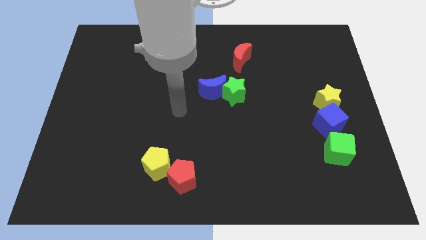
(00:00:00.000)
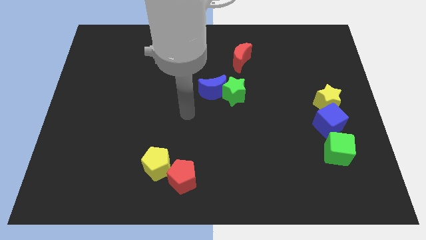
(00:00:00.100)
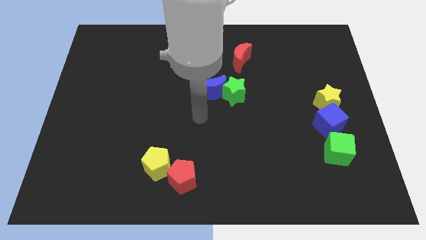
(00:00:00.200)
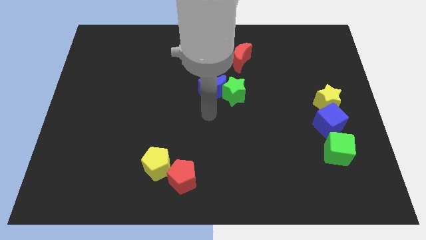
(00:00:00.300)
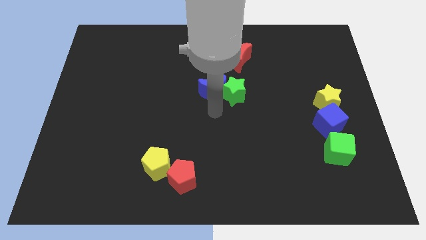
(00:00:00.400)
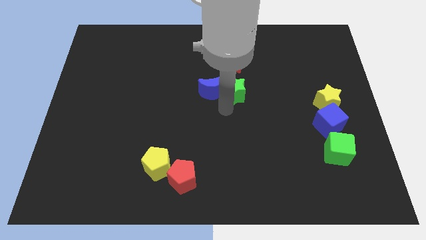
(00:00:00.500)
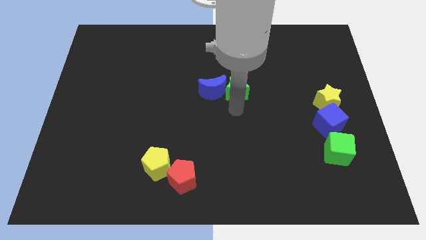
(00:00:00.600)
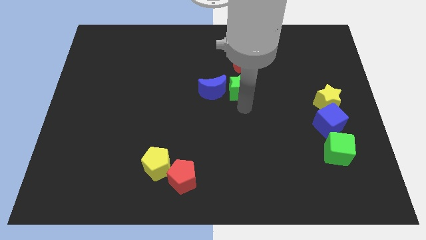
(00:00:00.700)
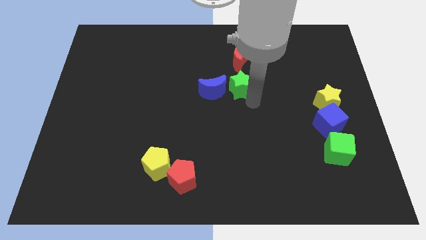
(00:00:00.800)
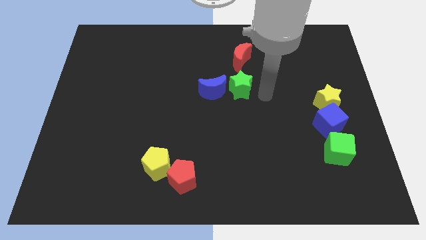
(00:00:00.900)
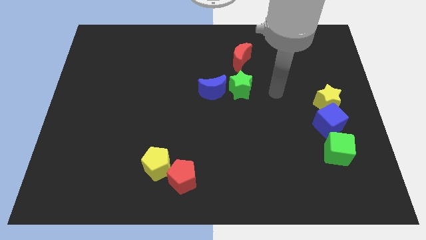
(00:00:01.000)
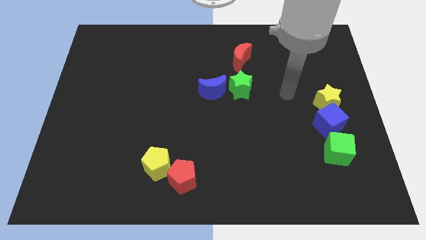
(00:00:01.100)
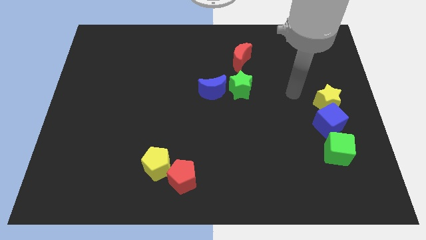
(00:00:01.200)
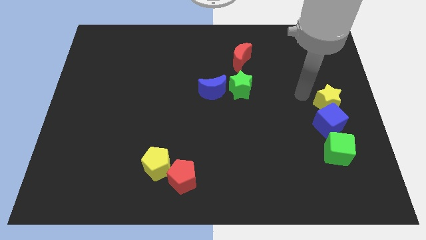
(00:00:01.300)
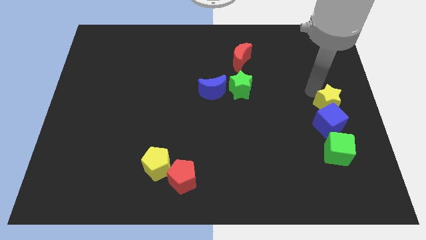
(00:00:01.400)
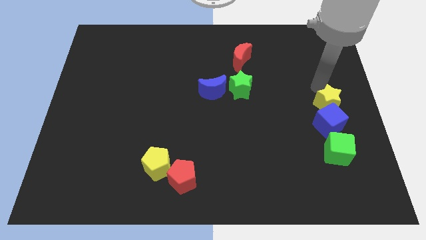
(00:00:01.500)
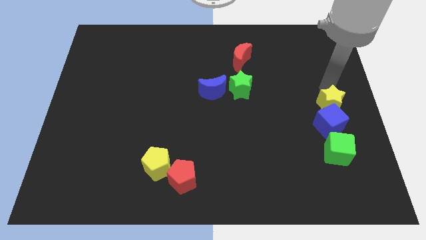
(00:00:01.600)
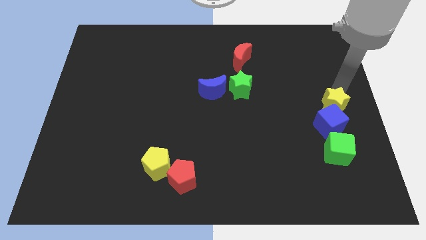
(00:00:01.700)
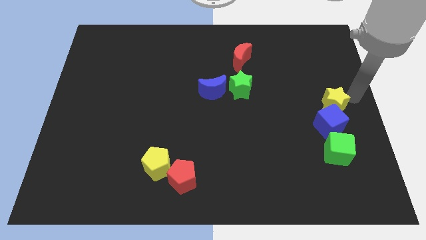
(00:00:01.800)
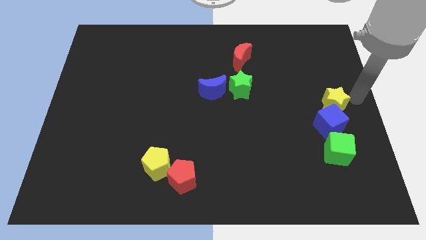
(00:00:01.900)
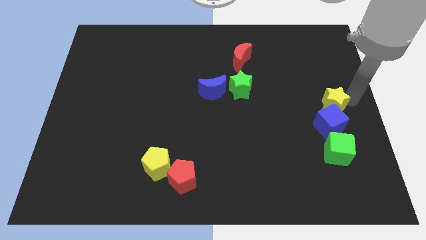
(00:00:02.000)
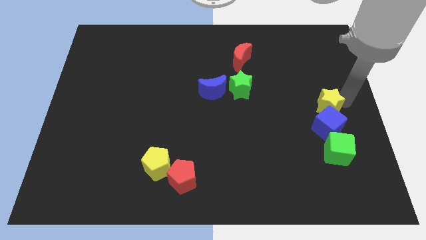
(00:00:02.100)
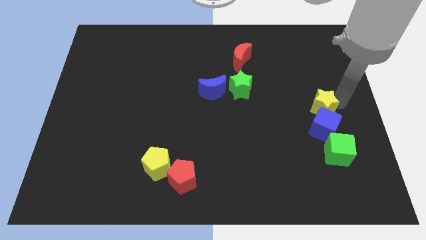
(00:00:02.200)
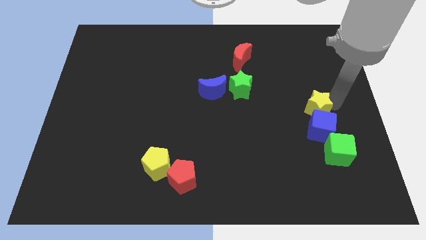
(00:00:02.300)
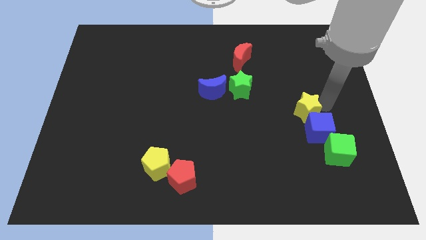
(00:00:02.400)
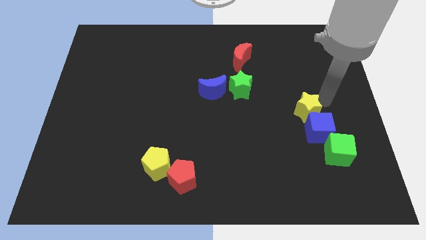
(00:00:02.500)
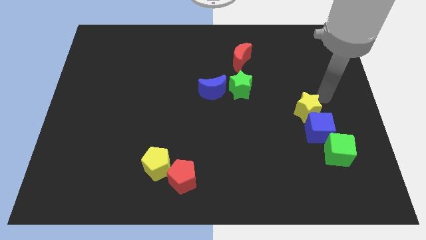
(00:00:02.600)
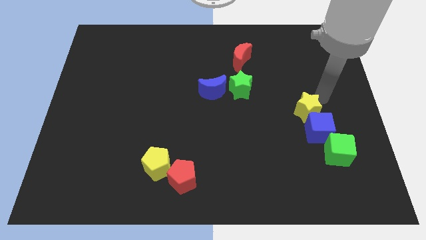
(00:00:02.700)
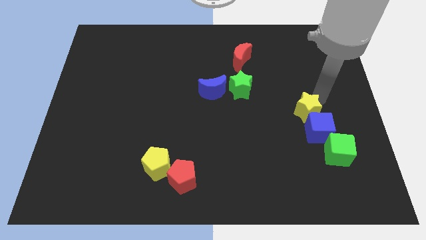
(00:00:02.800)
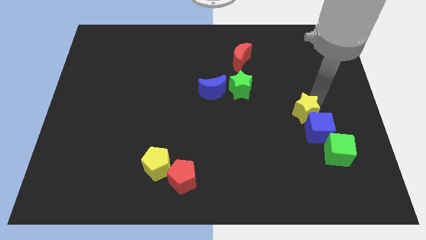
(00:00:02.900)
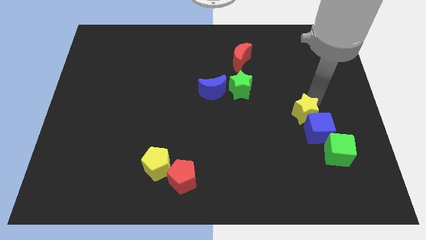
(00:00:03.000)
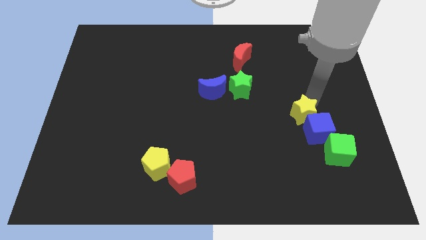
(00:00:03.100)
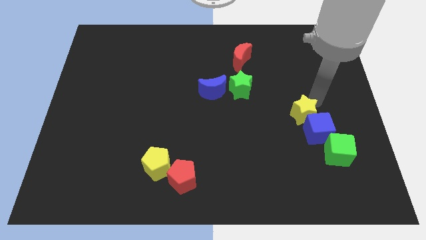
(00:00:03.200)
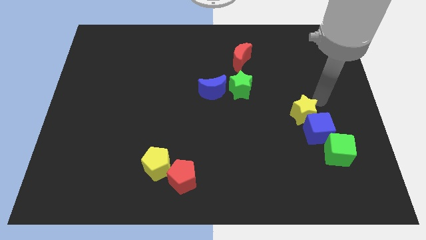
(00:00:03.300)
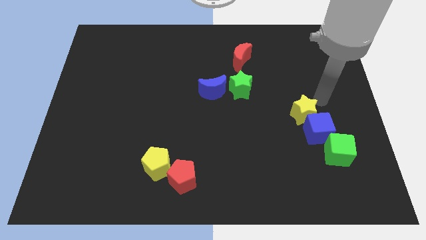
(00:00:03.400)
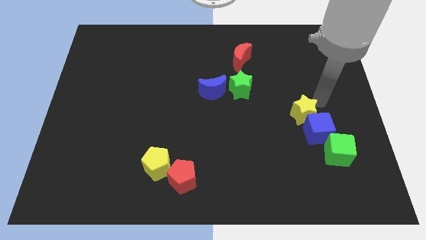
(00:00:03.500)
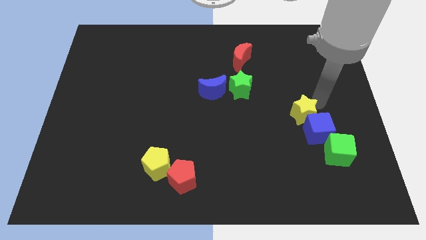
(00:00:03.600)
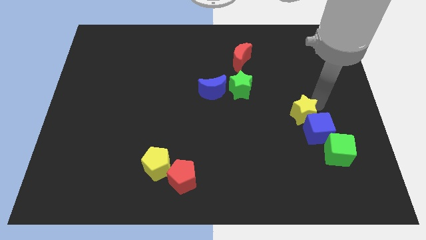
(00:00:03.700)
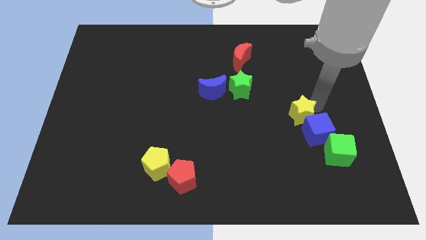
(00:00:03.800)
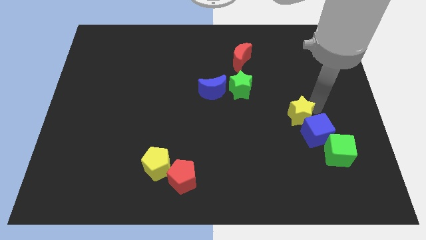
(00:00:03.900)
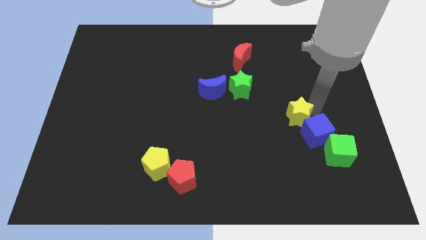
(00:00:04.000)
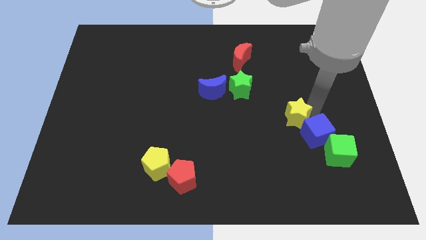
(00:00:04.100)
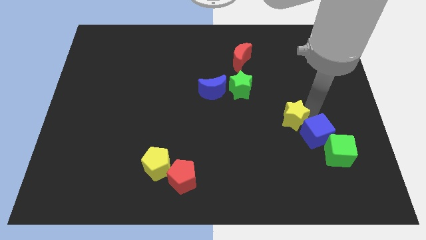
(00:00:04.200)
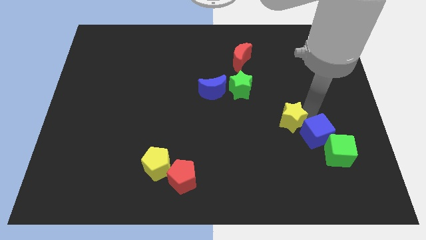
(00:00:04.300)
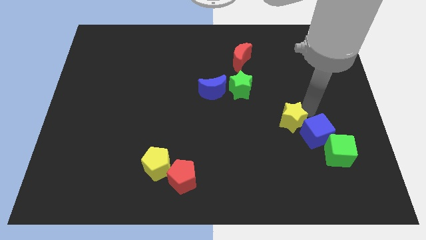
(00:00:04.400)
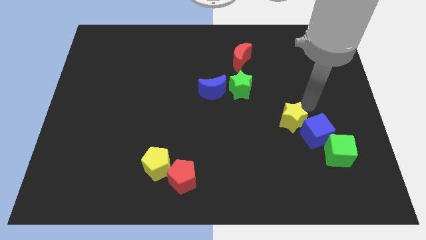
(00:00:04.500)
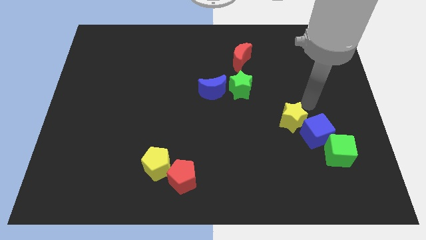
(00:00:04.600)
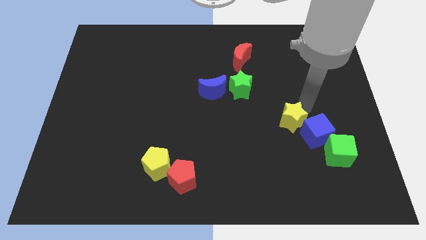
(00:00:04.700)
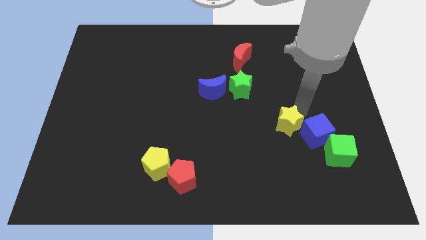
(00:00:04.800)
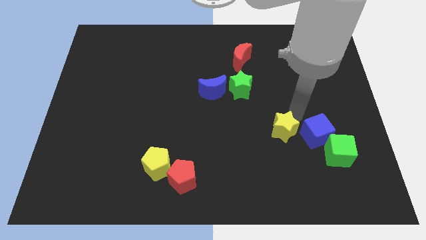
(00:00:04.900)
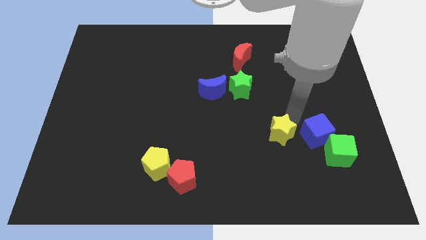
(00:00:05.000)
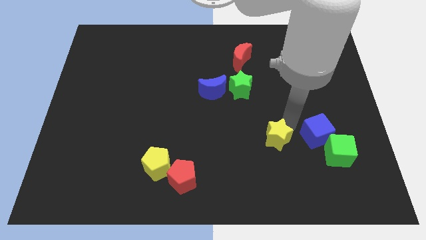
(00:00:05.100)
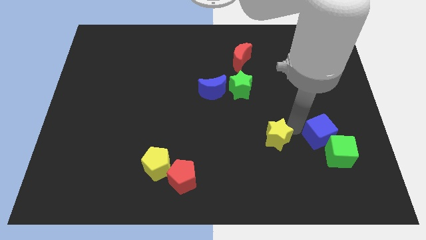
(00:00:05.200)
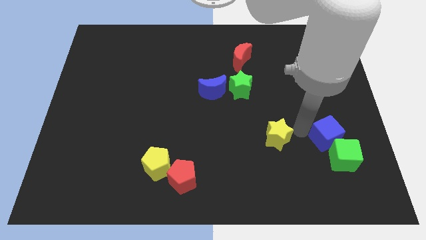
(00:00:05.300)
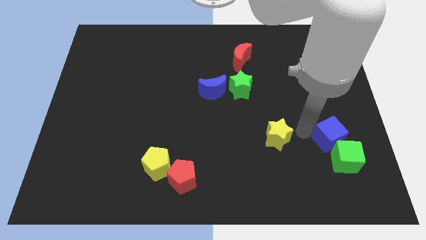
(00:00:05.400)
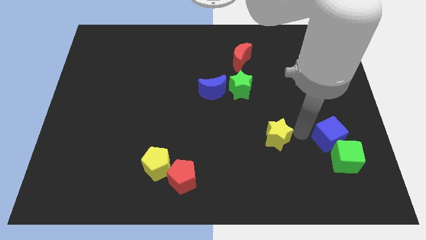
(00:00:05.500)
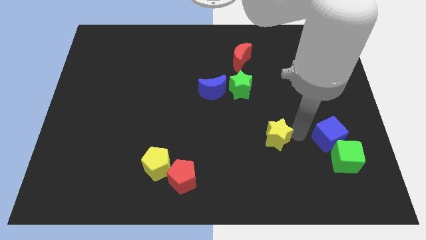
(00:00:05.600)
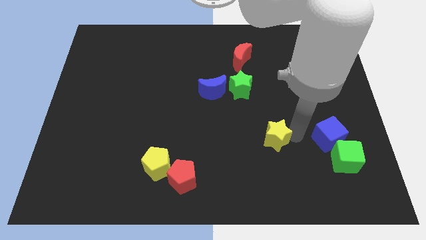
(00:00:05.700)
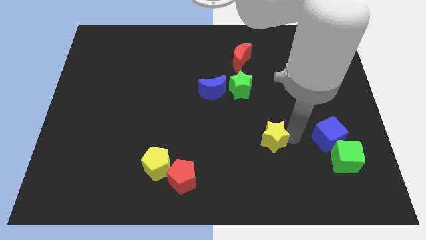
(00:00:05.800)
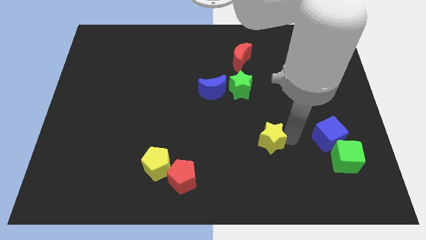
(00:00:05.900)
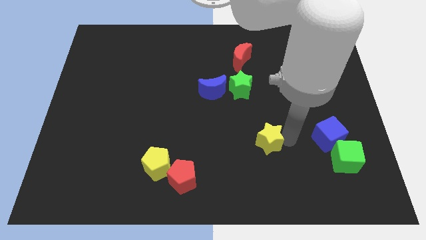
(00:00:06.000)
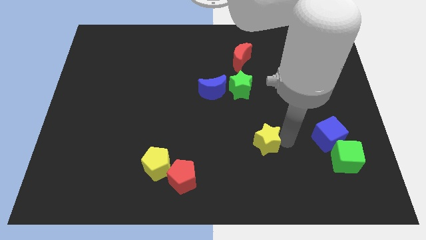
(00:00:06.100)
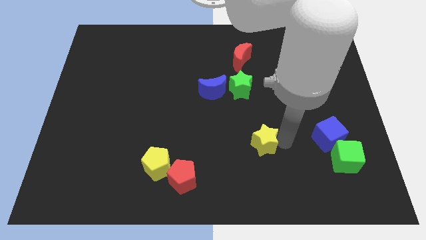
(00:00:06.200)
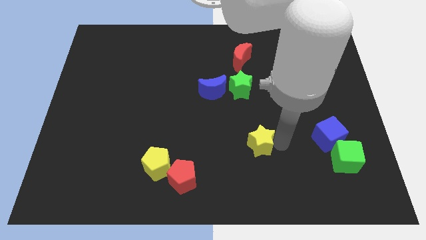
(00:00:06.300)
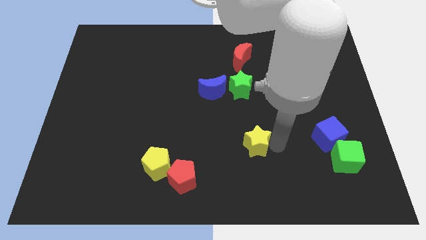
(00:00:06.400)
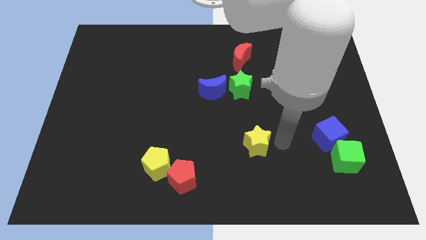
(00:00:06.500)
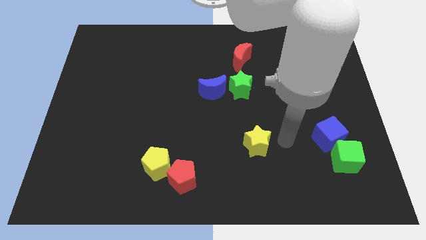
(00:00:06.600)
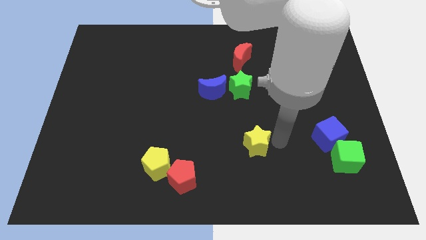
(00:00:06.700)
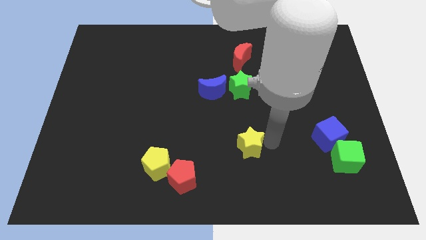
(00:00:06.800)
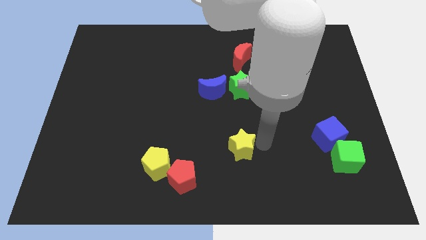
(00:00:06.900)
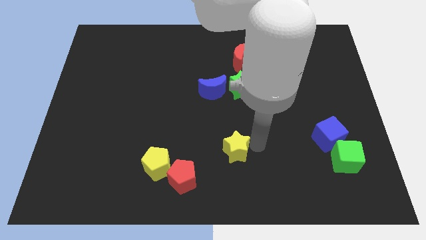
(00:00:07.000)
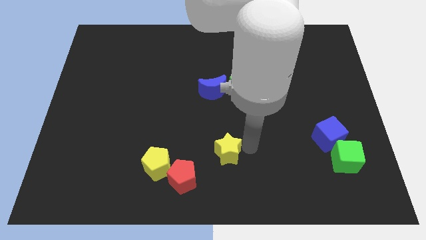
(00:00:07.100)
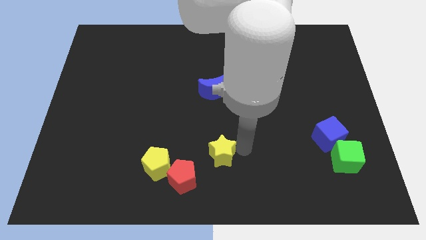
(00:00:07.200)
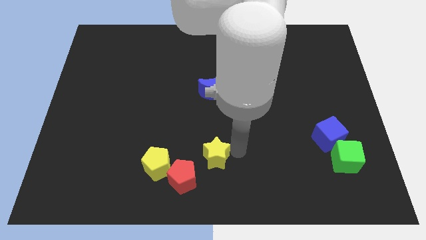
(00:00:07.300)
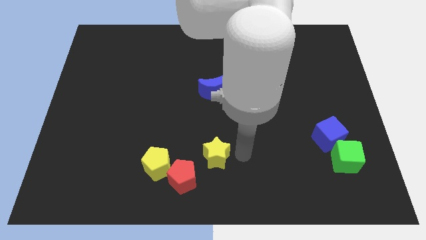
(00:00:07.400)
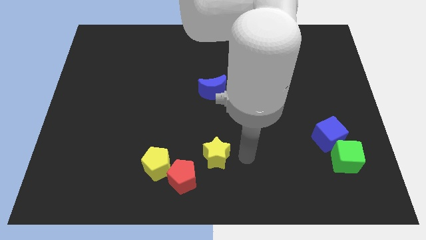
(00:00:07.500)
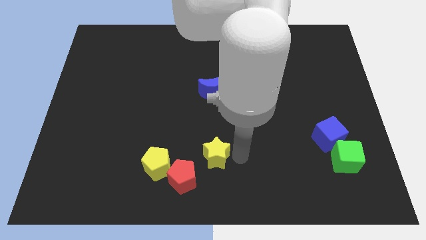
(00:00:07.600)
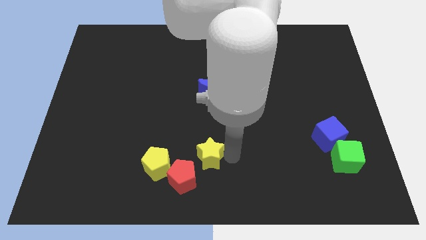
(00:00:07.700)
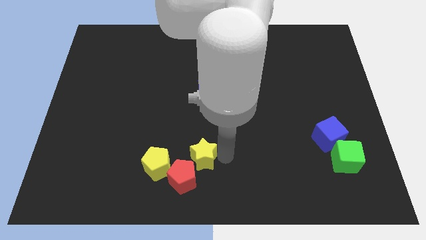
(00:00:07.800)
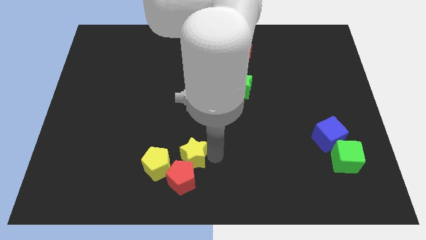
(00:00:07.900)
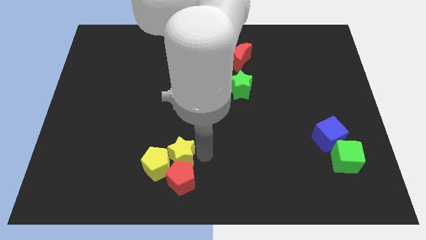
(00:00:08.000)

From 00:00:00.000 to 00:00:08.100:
move the yellow star next to the yellow pentagon

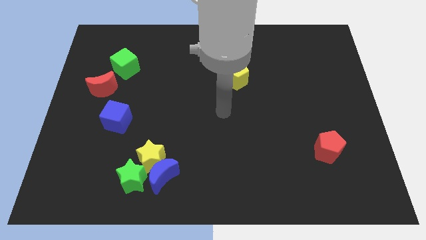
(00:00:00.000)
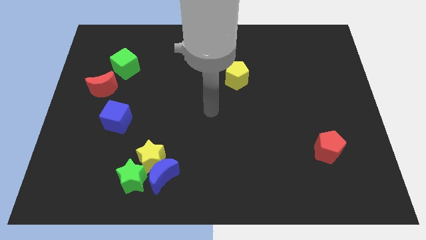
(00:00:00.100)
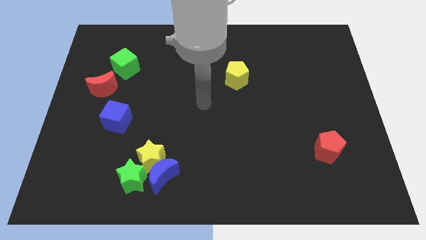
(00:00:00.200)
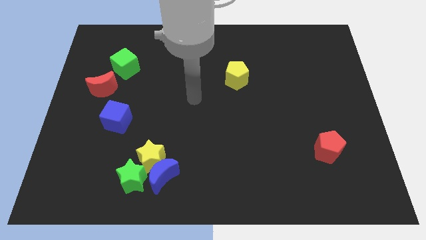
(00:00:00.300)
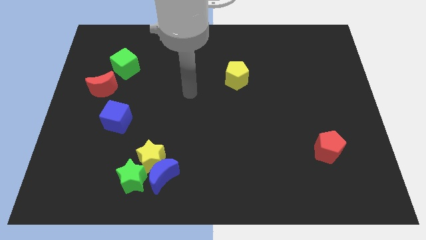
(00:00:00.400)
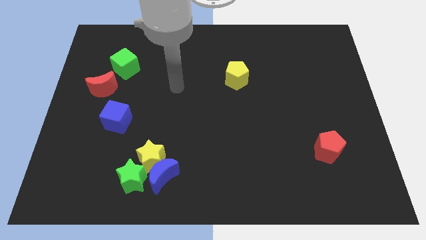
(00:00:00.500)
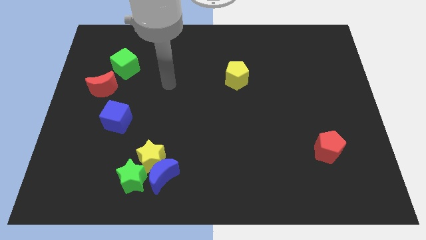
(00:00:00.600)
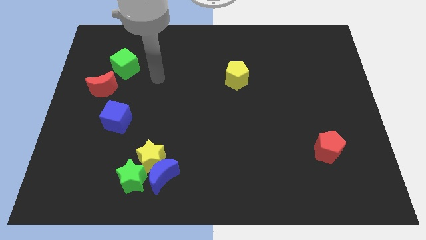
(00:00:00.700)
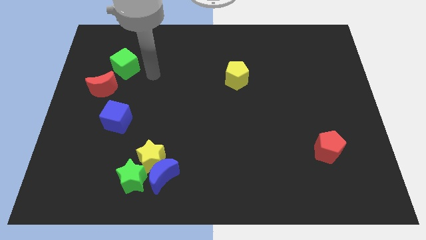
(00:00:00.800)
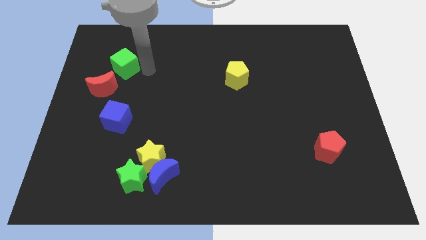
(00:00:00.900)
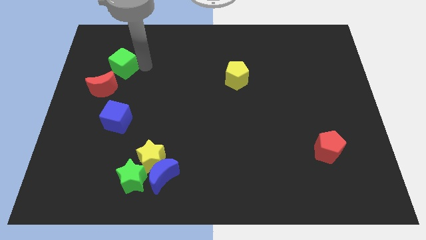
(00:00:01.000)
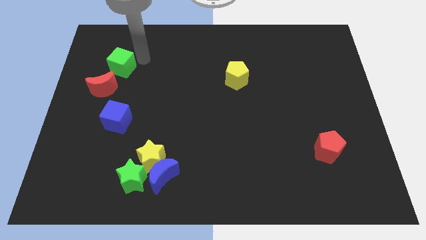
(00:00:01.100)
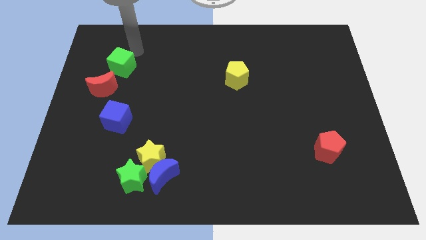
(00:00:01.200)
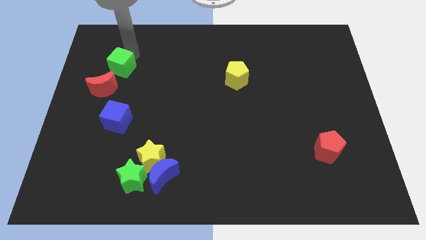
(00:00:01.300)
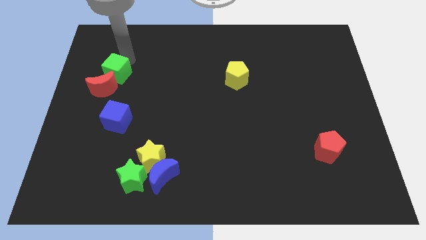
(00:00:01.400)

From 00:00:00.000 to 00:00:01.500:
slide the green cube to the red moon
